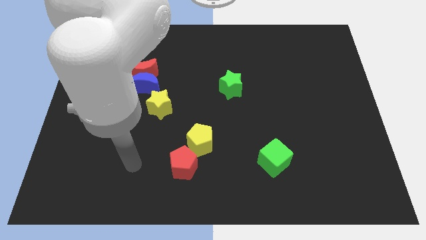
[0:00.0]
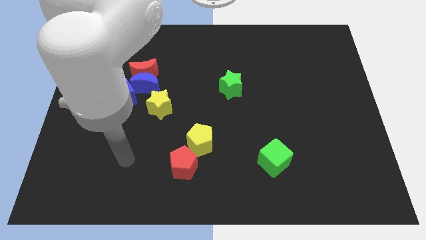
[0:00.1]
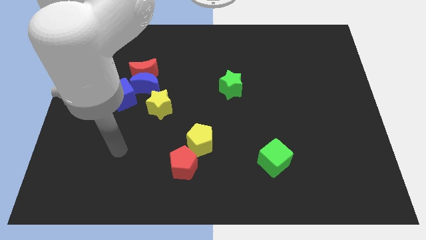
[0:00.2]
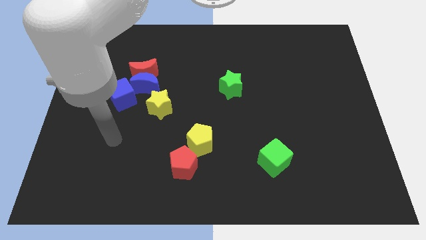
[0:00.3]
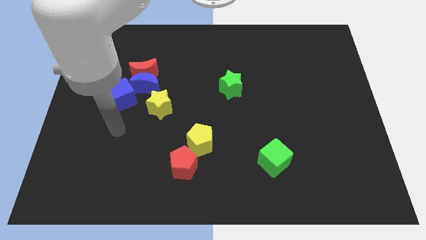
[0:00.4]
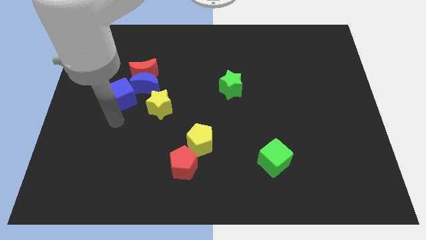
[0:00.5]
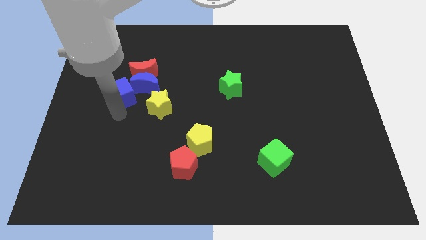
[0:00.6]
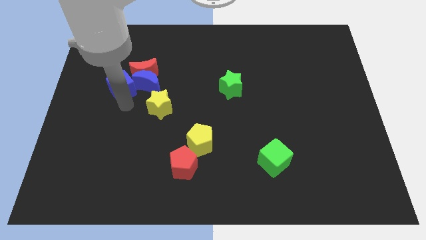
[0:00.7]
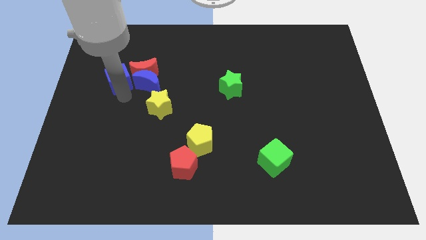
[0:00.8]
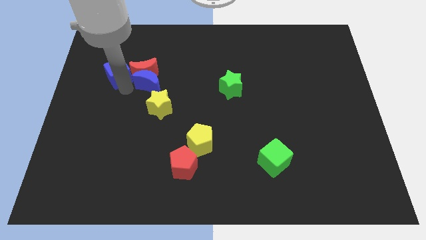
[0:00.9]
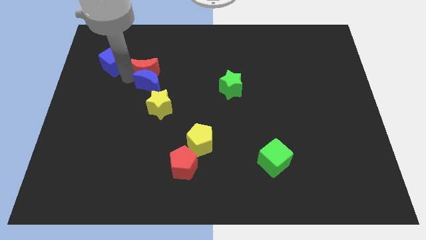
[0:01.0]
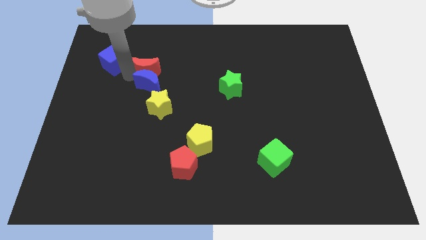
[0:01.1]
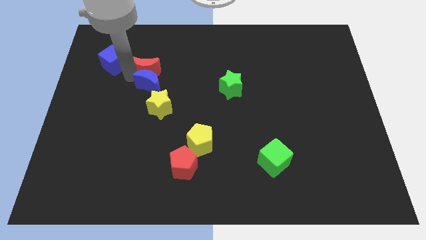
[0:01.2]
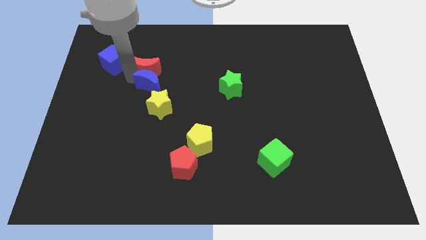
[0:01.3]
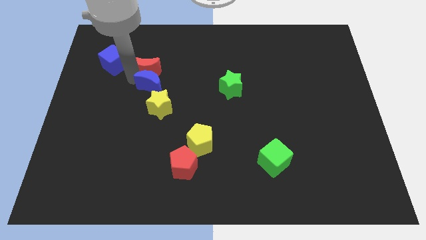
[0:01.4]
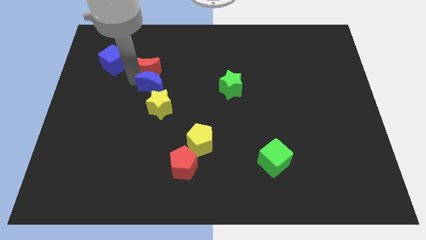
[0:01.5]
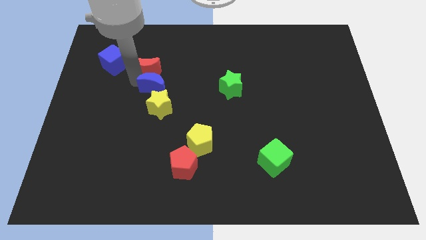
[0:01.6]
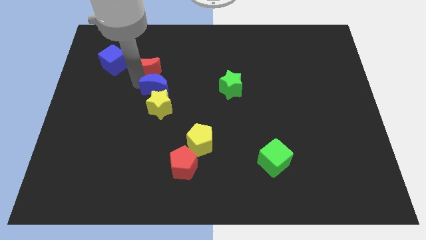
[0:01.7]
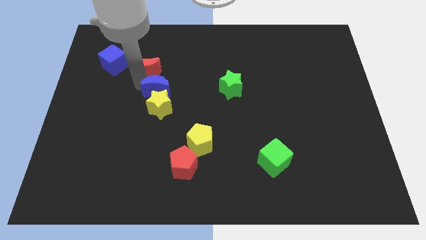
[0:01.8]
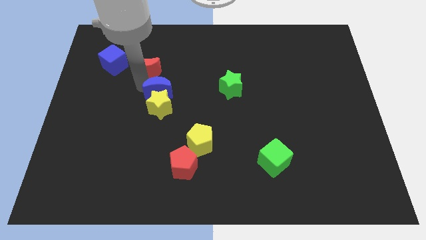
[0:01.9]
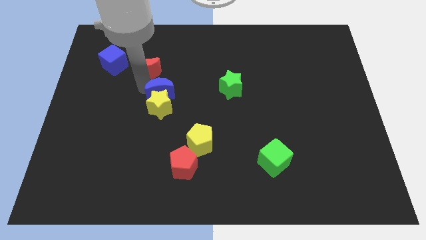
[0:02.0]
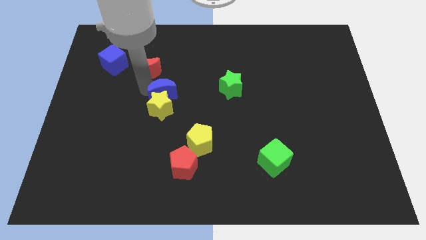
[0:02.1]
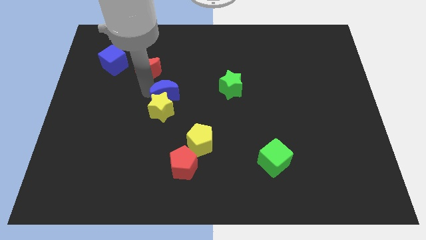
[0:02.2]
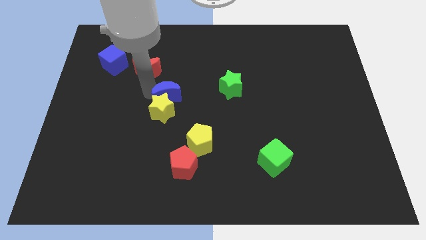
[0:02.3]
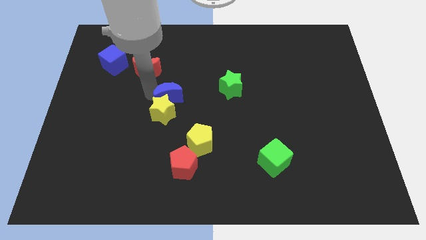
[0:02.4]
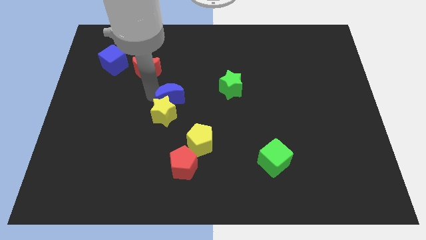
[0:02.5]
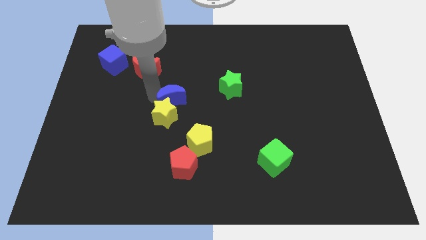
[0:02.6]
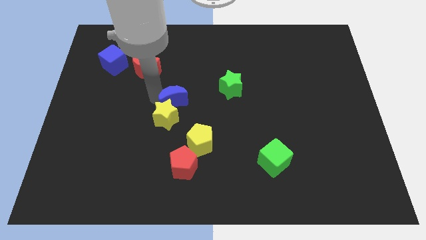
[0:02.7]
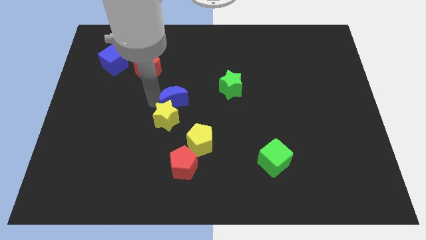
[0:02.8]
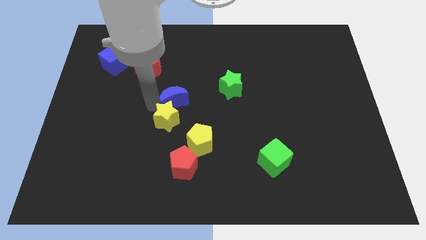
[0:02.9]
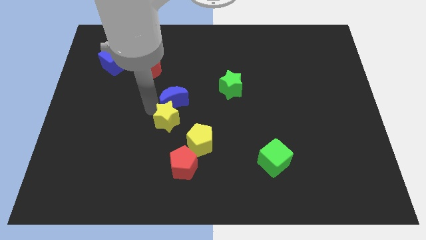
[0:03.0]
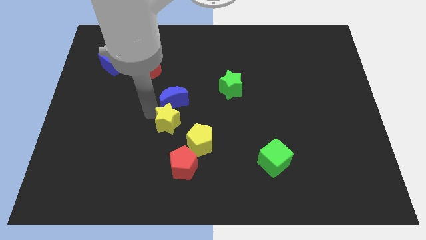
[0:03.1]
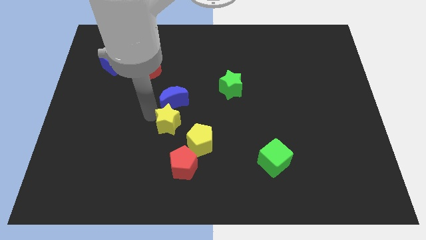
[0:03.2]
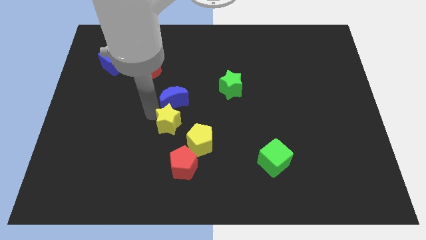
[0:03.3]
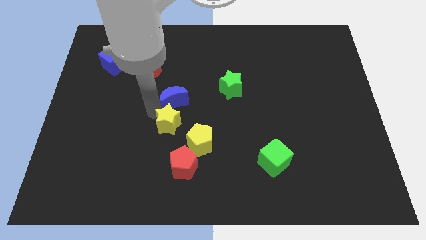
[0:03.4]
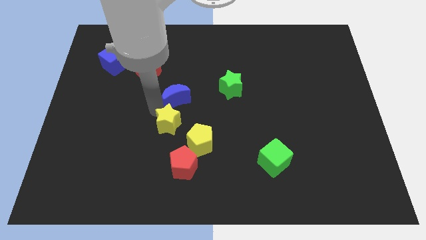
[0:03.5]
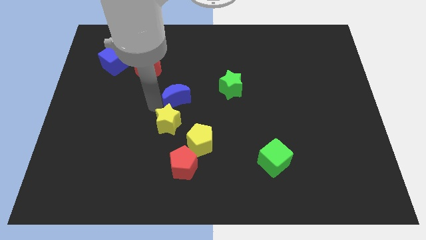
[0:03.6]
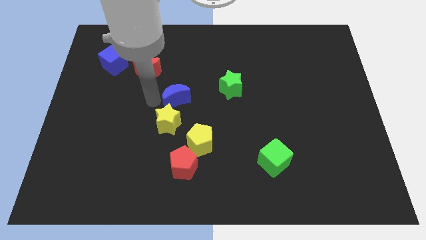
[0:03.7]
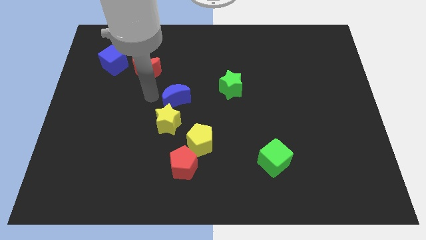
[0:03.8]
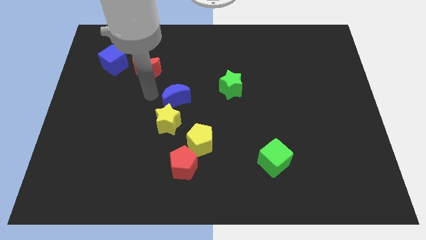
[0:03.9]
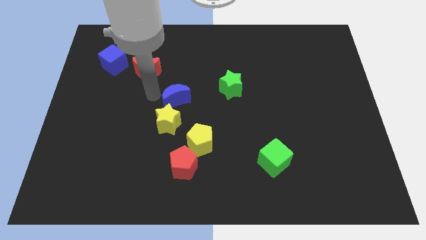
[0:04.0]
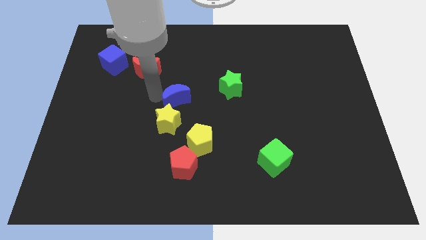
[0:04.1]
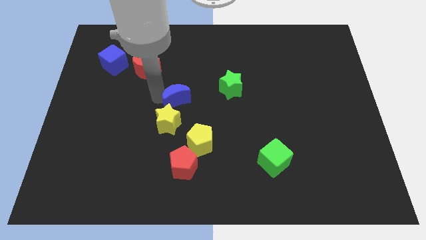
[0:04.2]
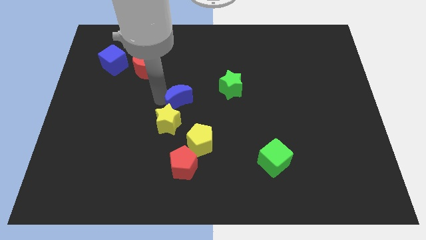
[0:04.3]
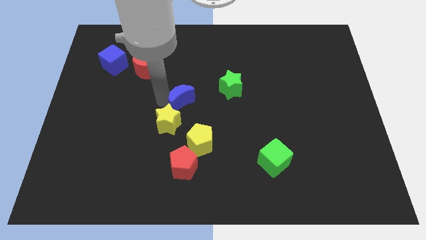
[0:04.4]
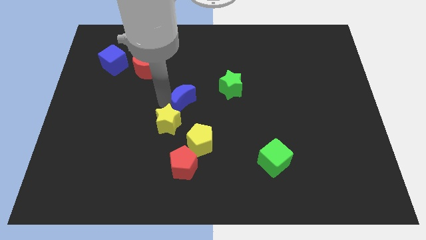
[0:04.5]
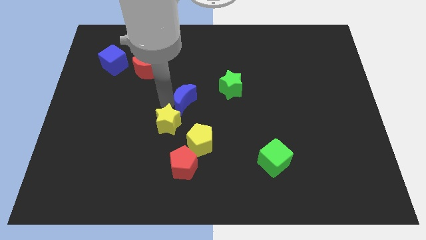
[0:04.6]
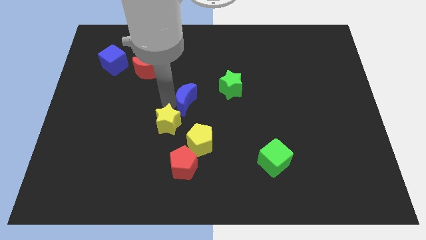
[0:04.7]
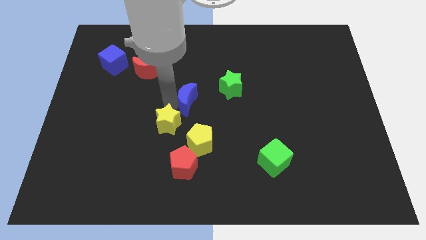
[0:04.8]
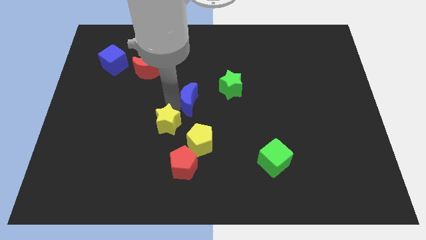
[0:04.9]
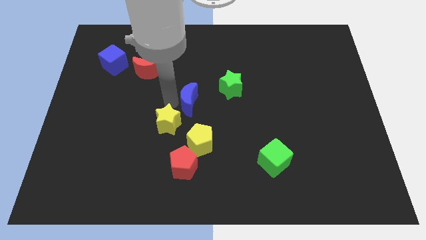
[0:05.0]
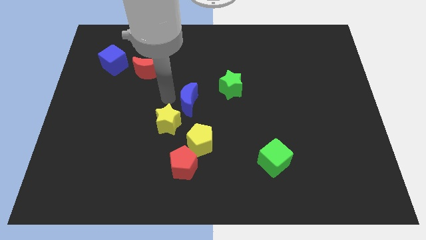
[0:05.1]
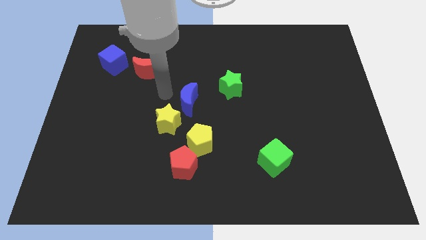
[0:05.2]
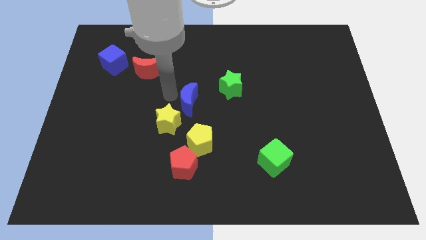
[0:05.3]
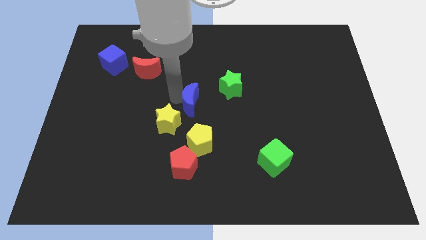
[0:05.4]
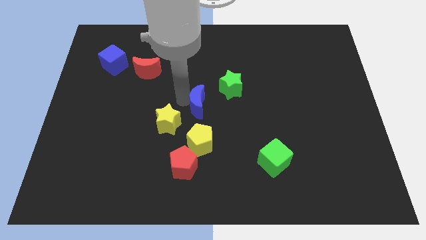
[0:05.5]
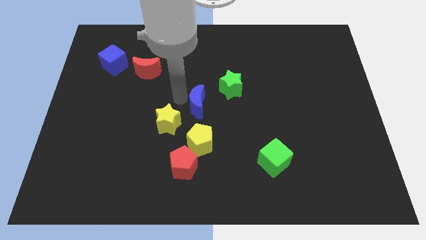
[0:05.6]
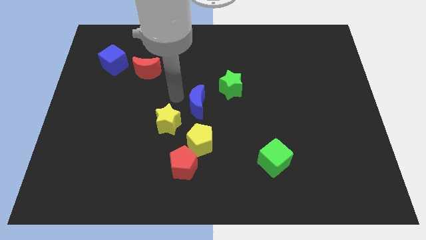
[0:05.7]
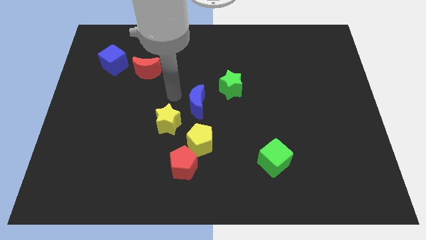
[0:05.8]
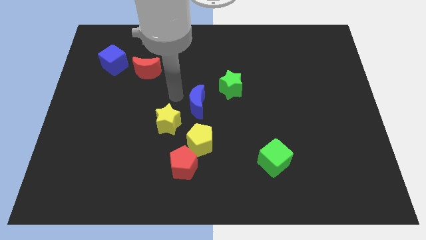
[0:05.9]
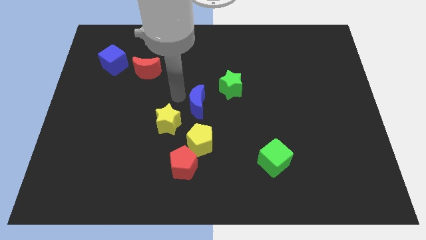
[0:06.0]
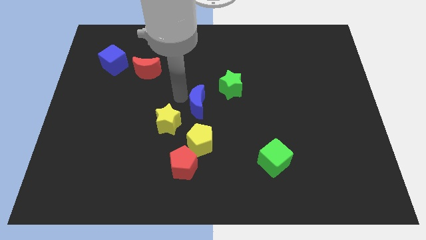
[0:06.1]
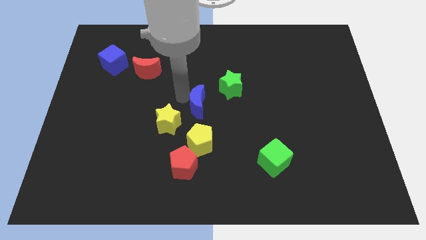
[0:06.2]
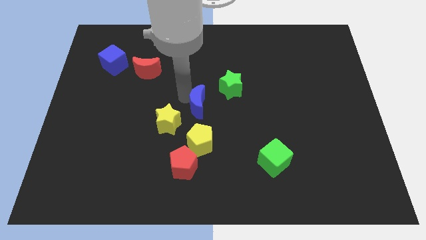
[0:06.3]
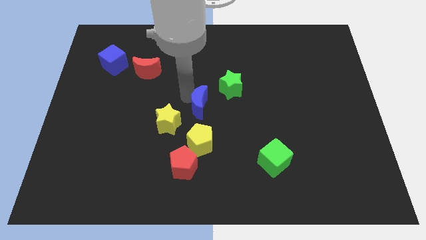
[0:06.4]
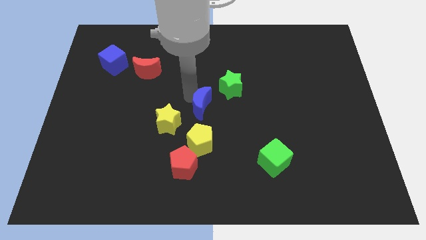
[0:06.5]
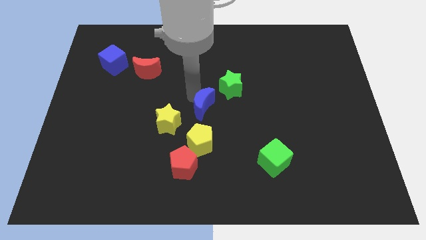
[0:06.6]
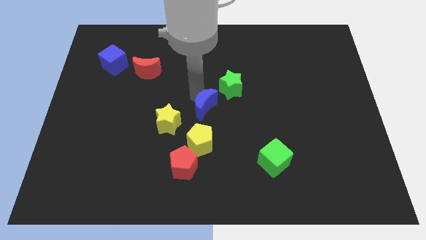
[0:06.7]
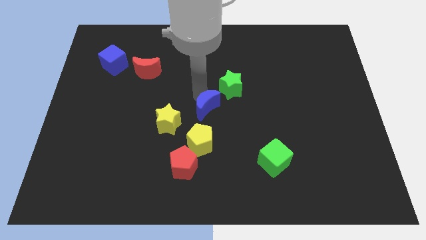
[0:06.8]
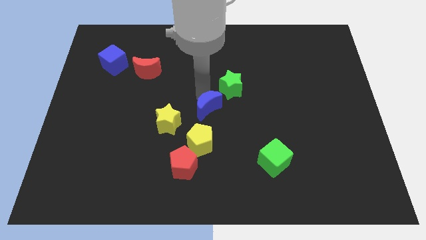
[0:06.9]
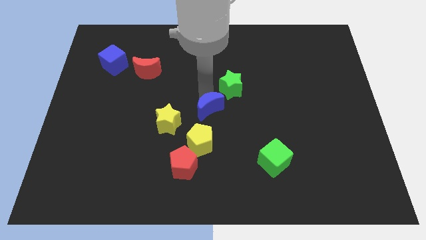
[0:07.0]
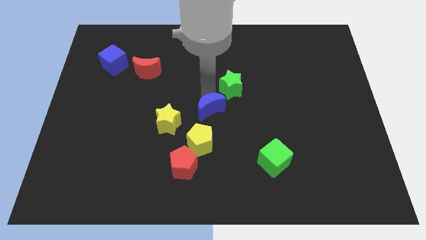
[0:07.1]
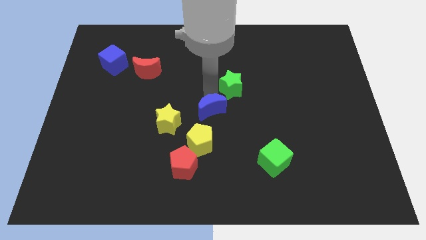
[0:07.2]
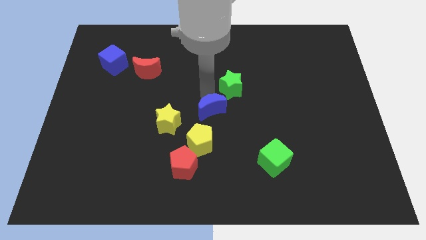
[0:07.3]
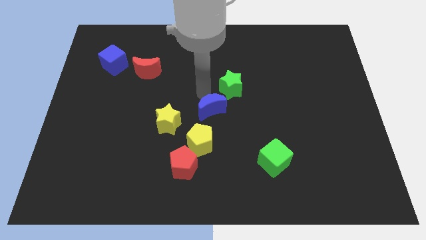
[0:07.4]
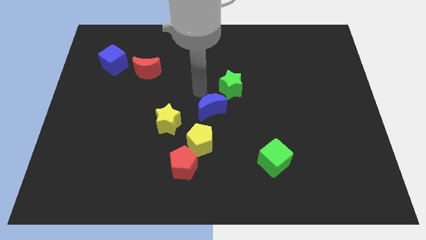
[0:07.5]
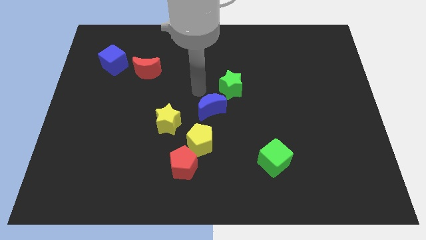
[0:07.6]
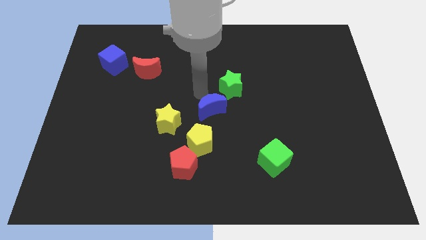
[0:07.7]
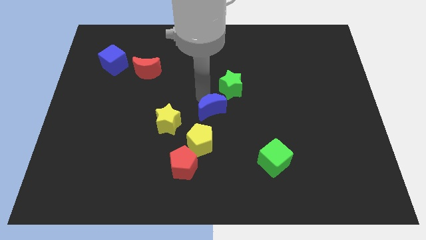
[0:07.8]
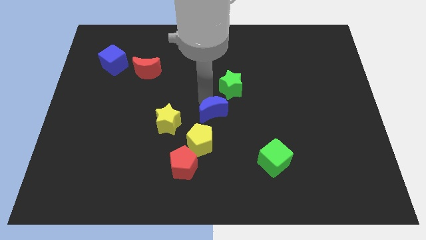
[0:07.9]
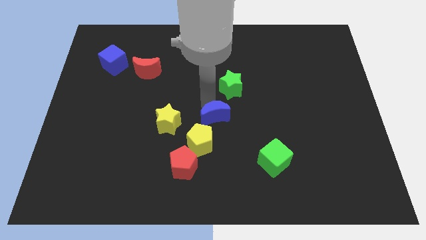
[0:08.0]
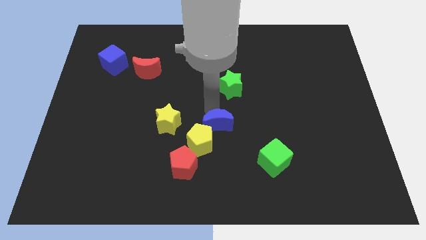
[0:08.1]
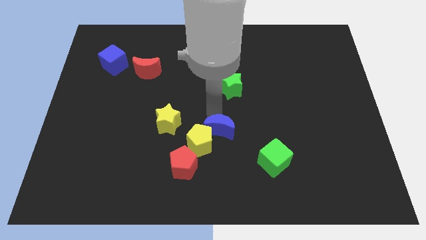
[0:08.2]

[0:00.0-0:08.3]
move the blue moon down and then right
